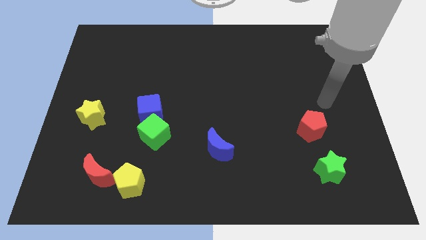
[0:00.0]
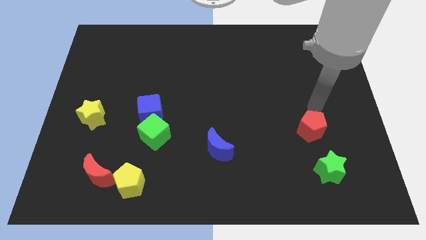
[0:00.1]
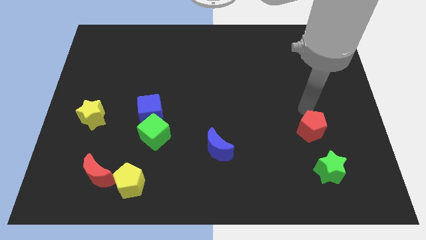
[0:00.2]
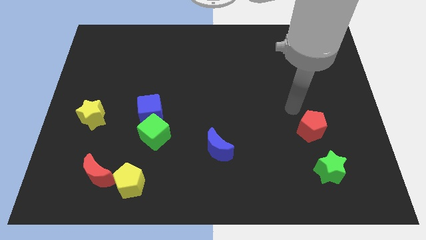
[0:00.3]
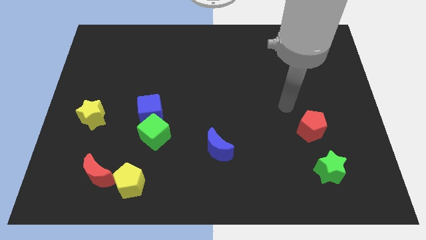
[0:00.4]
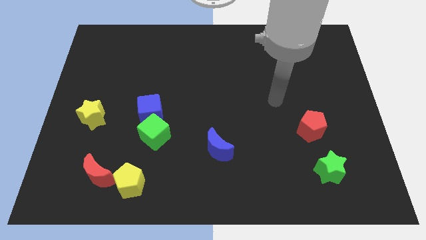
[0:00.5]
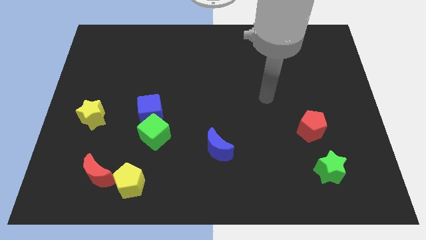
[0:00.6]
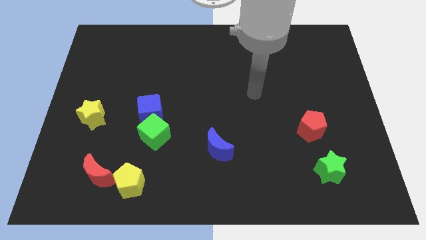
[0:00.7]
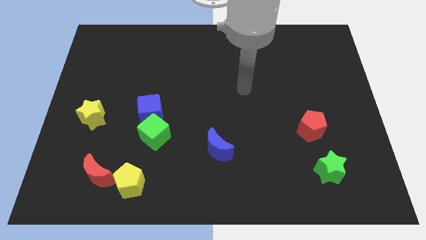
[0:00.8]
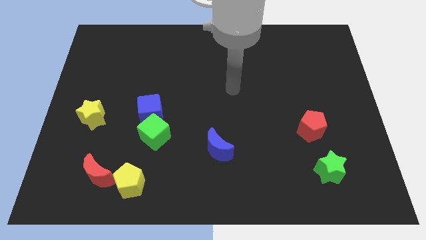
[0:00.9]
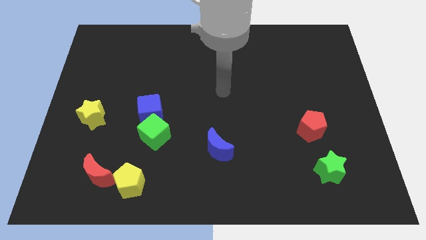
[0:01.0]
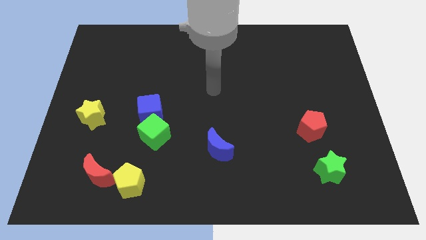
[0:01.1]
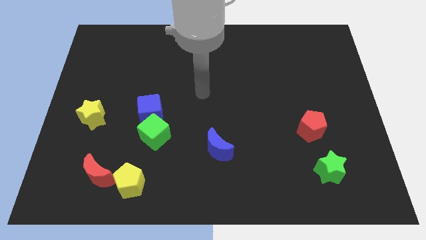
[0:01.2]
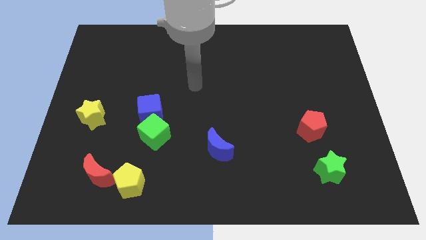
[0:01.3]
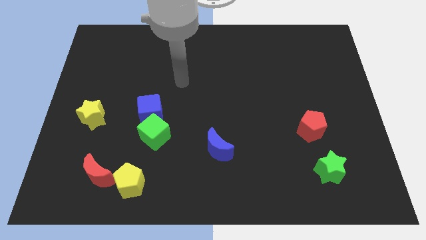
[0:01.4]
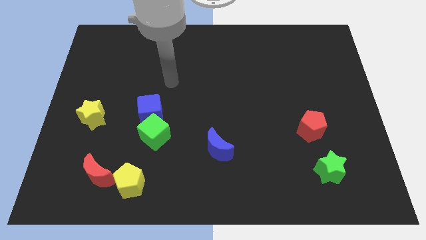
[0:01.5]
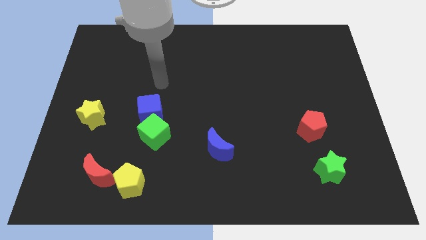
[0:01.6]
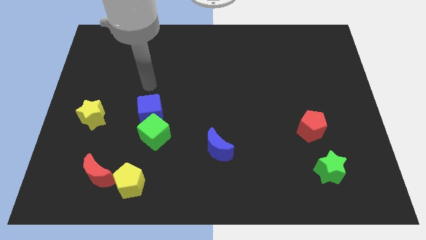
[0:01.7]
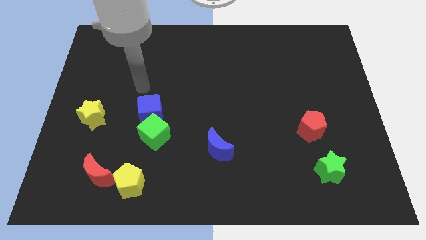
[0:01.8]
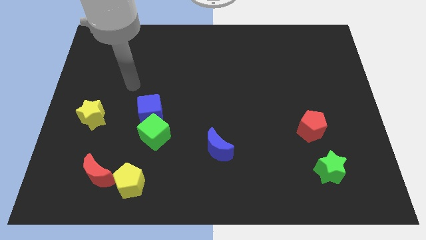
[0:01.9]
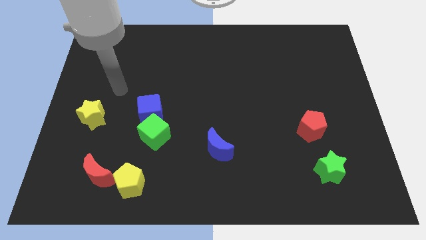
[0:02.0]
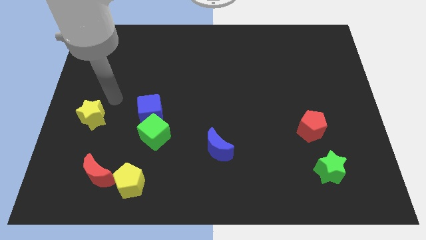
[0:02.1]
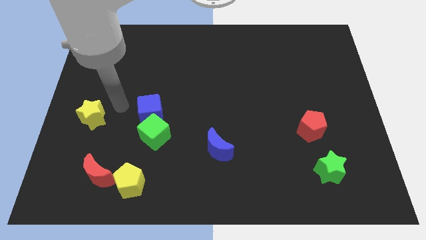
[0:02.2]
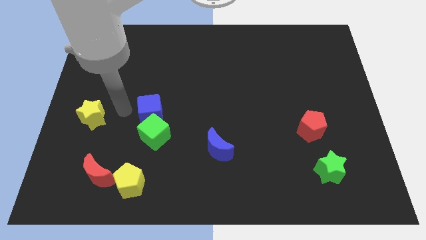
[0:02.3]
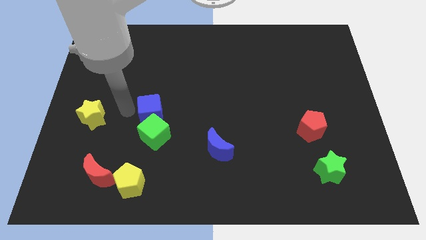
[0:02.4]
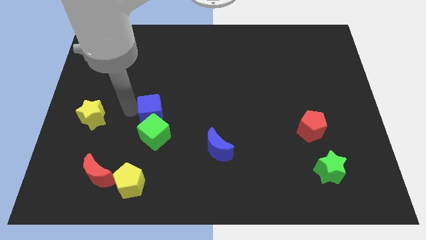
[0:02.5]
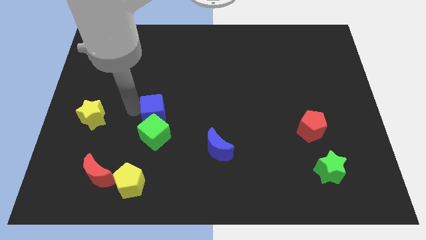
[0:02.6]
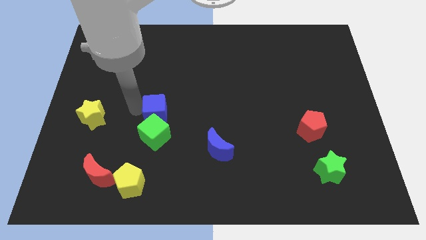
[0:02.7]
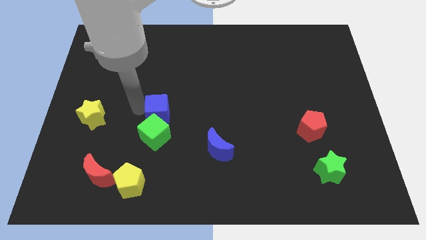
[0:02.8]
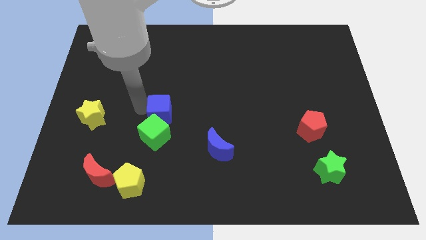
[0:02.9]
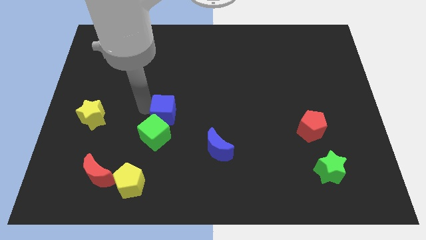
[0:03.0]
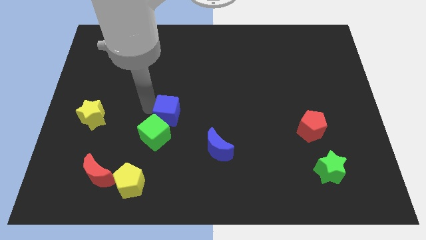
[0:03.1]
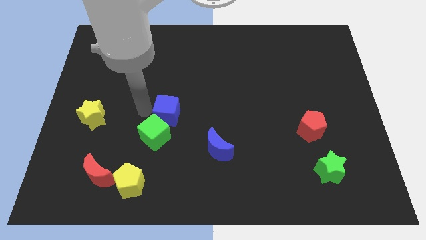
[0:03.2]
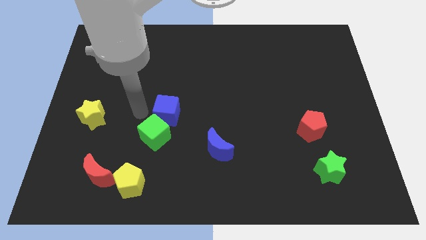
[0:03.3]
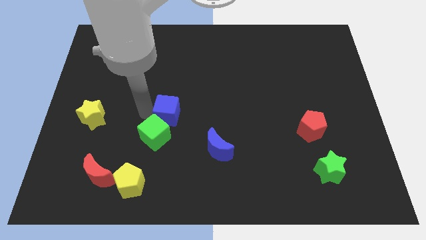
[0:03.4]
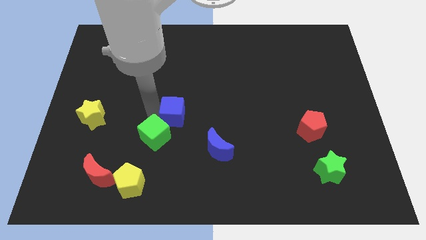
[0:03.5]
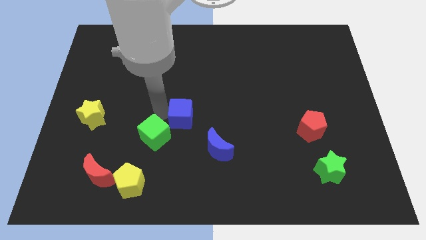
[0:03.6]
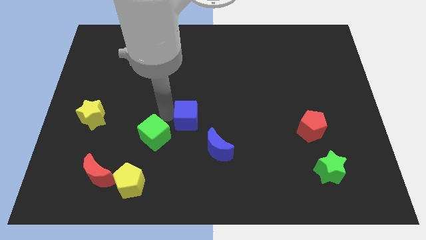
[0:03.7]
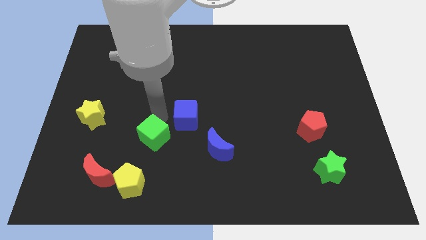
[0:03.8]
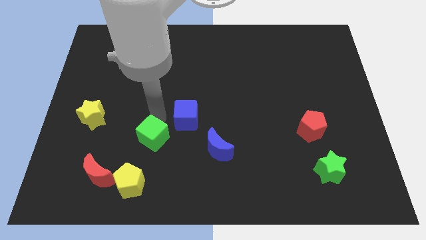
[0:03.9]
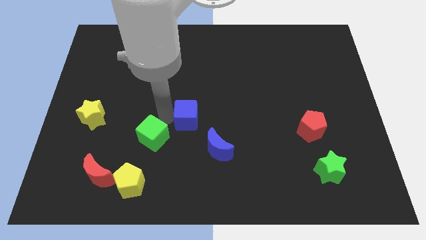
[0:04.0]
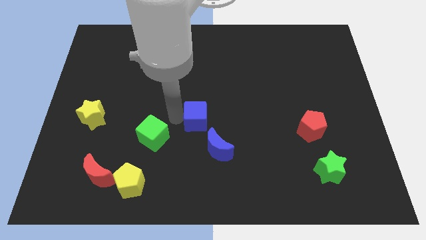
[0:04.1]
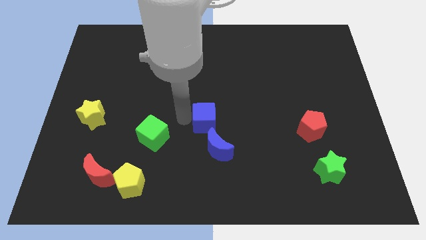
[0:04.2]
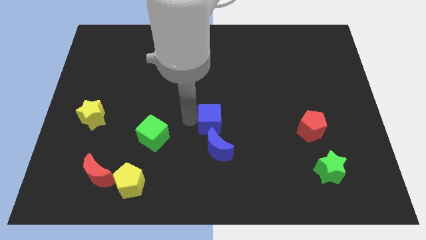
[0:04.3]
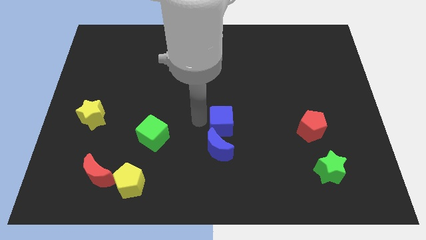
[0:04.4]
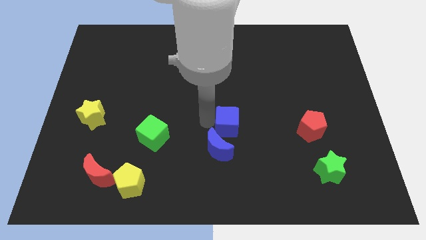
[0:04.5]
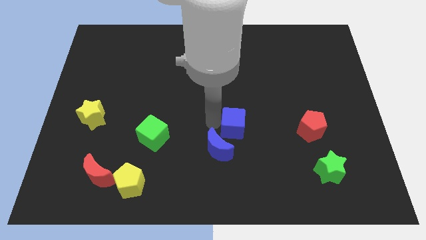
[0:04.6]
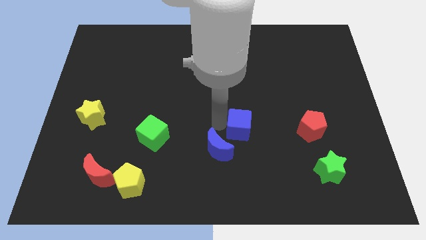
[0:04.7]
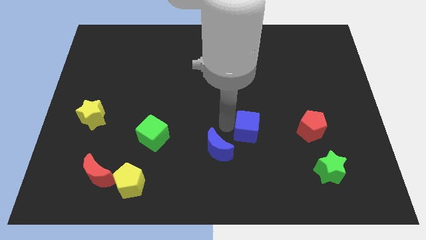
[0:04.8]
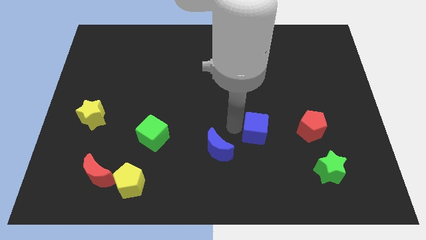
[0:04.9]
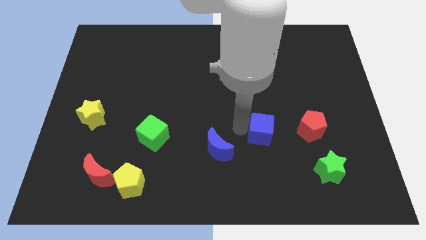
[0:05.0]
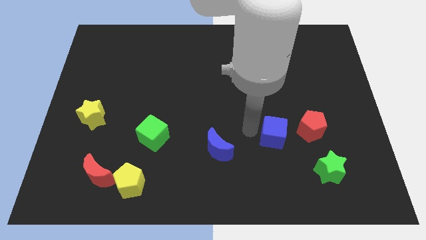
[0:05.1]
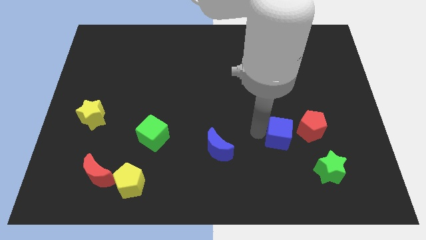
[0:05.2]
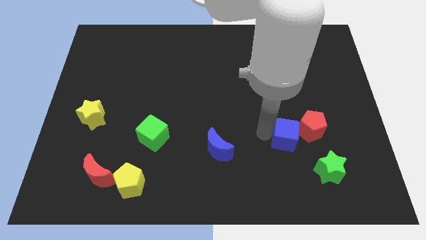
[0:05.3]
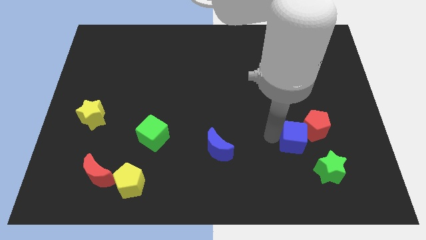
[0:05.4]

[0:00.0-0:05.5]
push the blue cube to the red pentagon

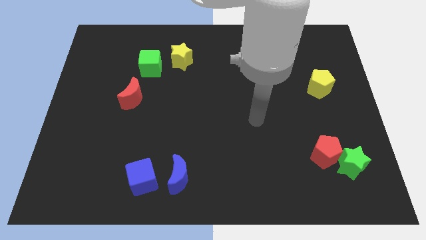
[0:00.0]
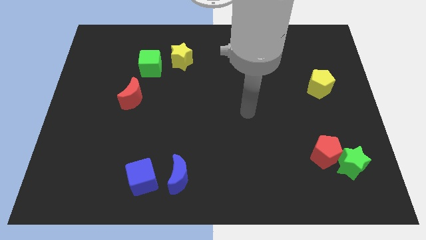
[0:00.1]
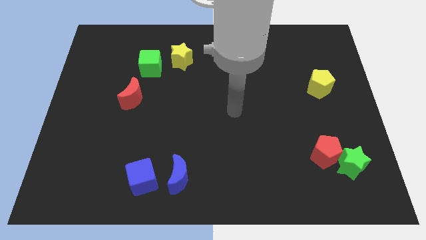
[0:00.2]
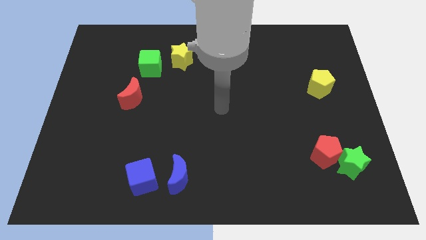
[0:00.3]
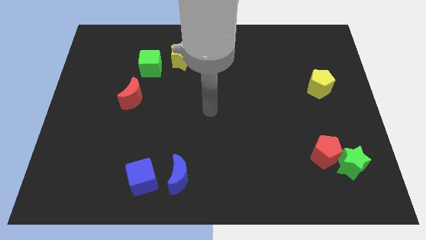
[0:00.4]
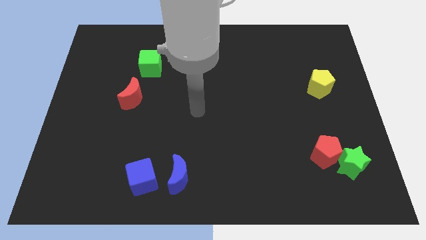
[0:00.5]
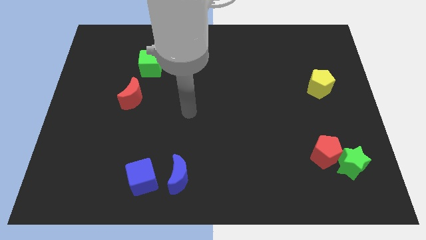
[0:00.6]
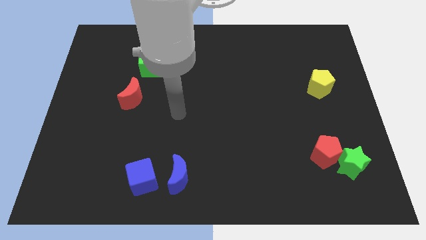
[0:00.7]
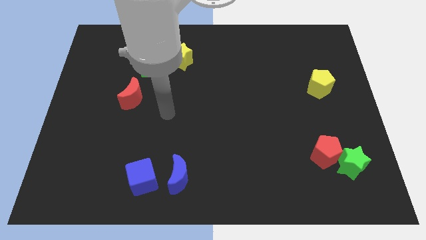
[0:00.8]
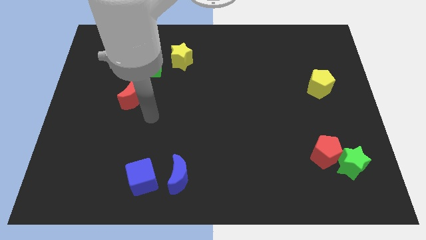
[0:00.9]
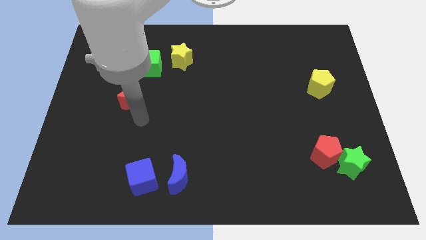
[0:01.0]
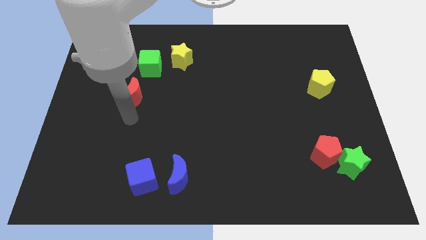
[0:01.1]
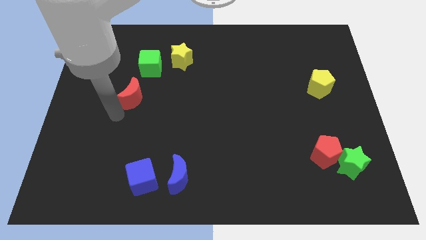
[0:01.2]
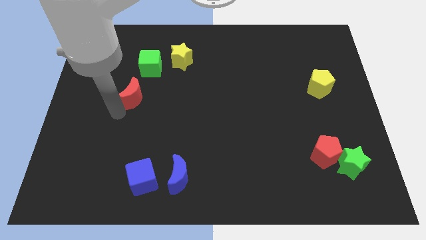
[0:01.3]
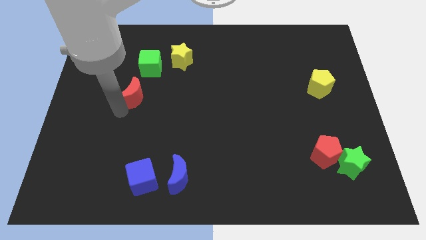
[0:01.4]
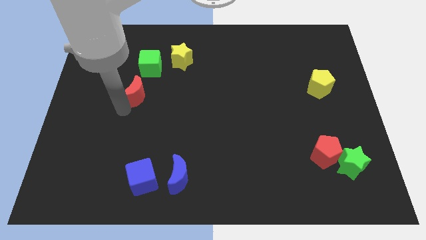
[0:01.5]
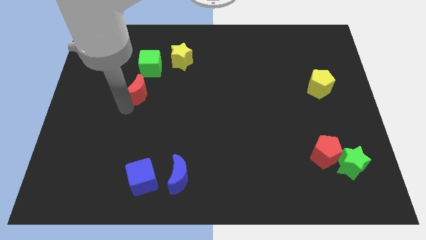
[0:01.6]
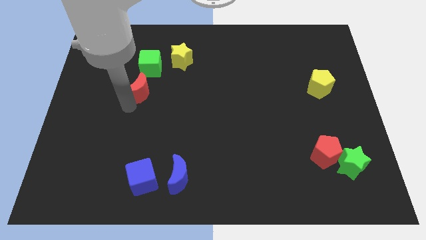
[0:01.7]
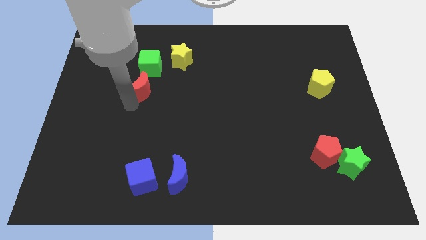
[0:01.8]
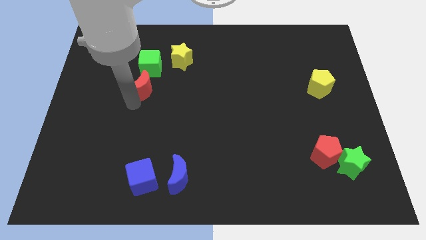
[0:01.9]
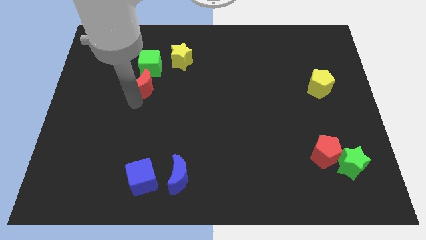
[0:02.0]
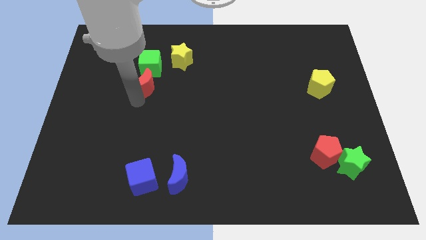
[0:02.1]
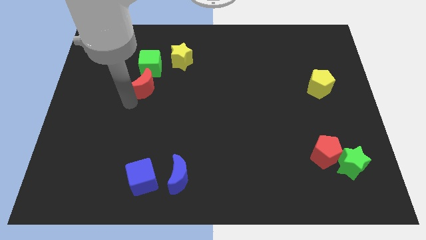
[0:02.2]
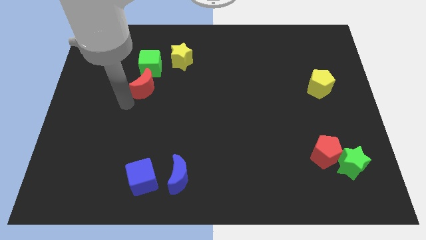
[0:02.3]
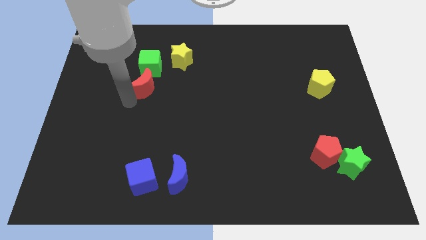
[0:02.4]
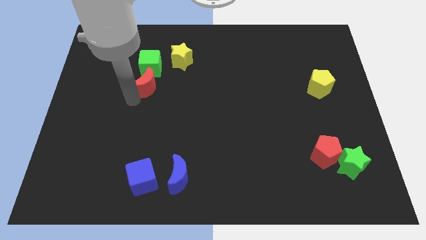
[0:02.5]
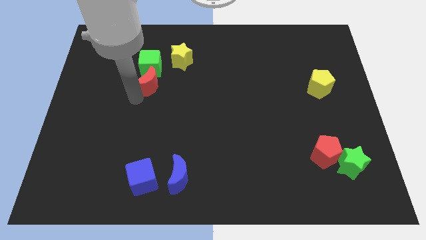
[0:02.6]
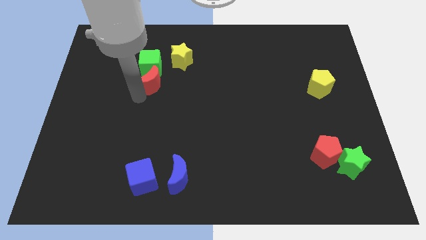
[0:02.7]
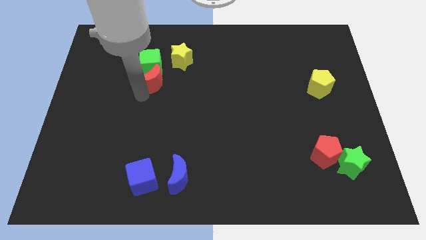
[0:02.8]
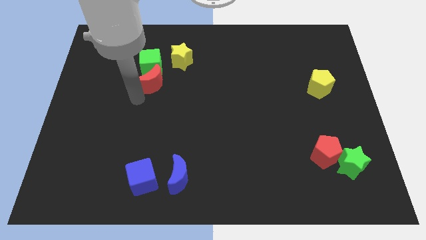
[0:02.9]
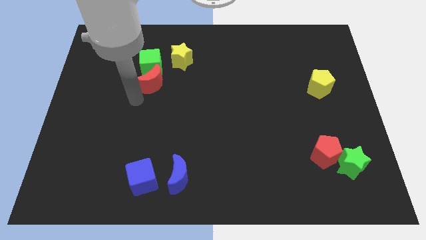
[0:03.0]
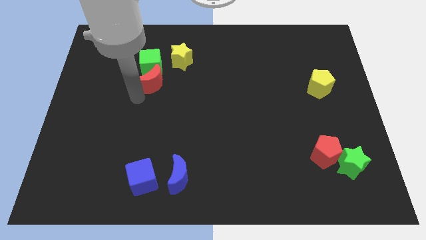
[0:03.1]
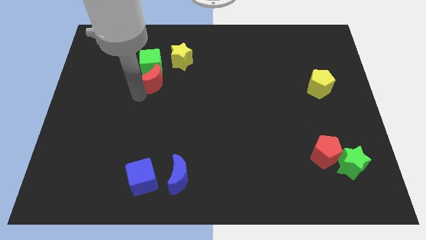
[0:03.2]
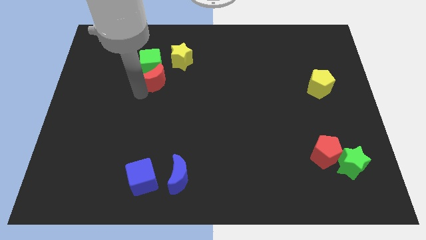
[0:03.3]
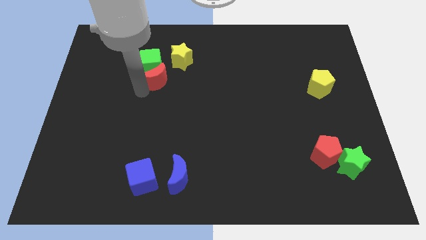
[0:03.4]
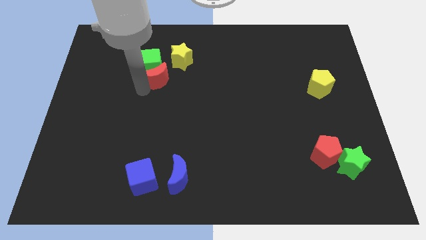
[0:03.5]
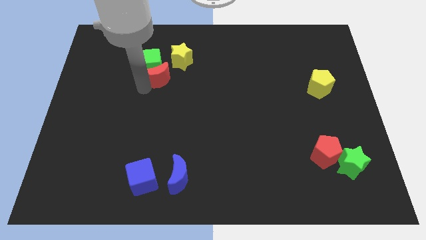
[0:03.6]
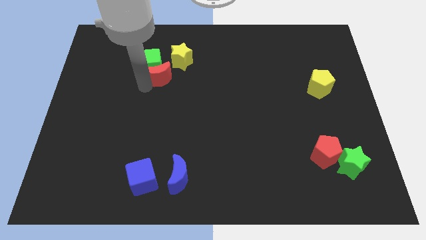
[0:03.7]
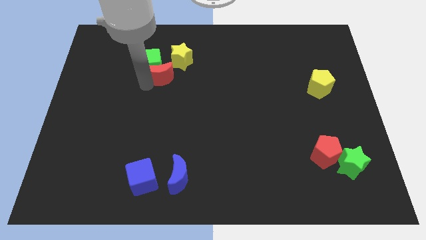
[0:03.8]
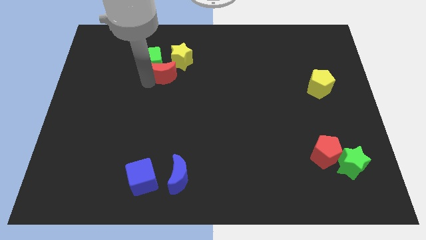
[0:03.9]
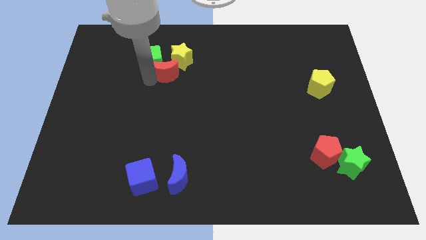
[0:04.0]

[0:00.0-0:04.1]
slide the red moon towards the yellow star
